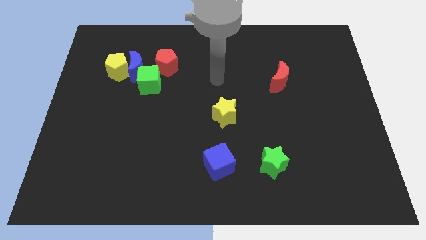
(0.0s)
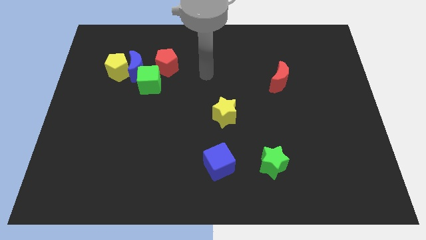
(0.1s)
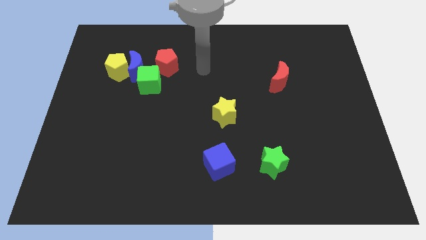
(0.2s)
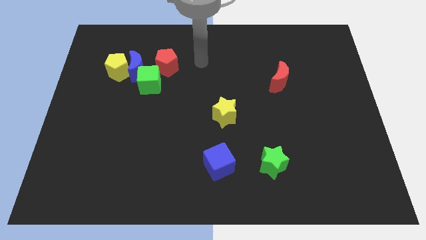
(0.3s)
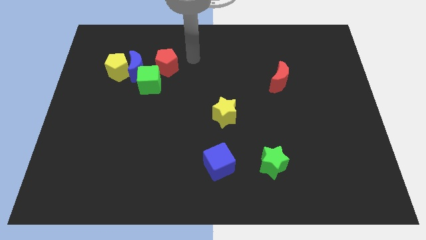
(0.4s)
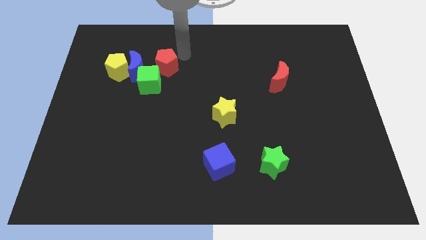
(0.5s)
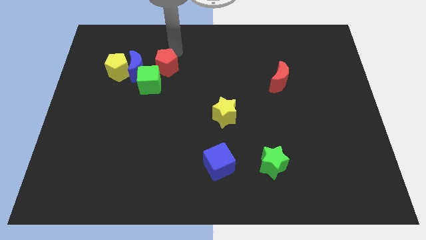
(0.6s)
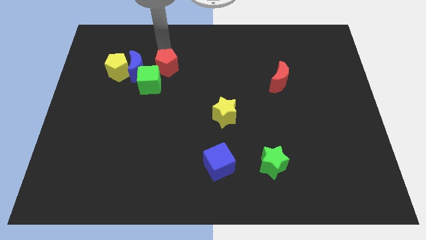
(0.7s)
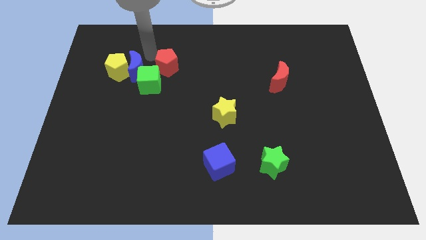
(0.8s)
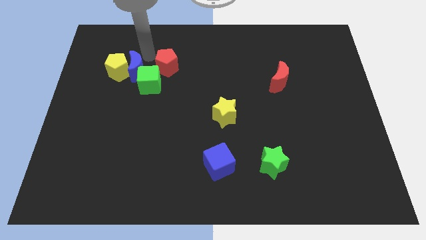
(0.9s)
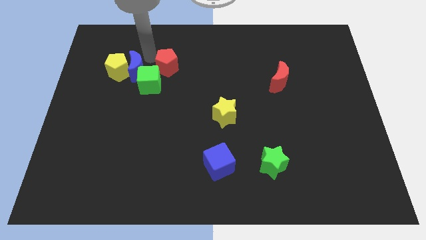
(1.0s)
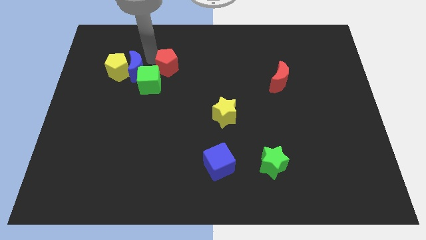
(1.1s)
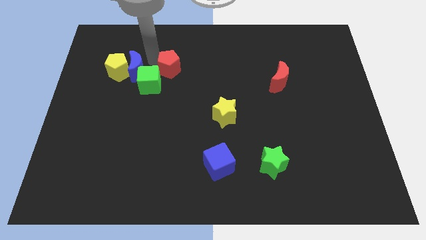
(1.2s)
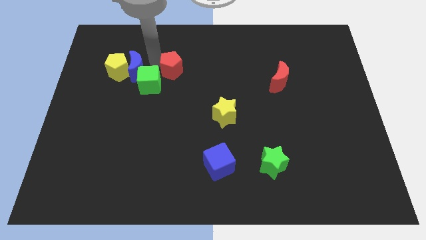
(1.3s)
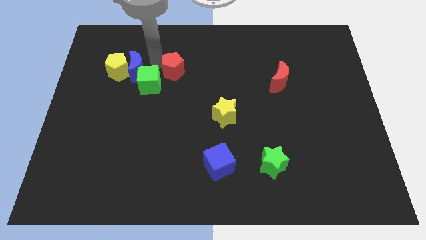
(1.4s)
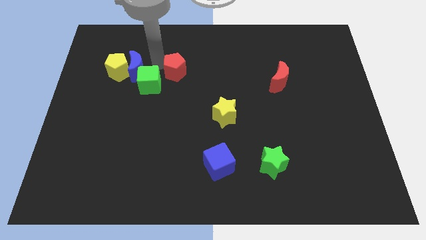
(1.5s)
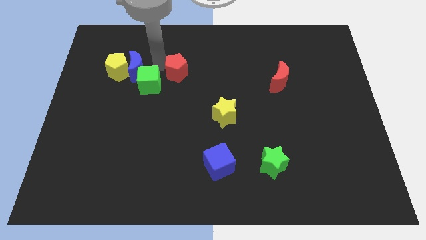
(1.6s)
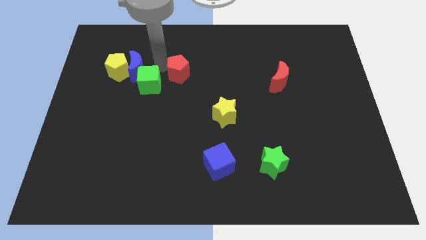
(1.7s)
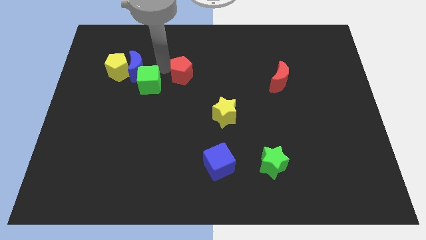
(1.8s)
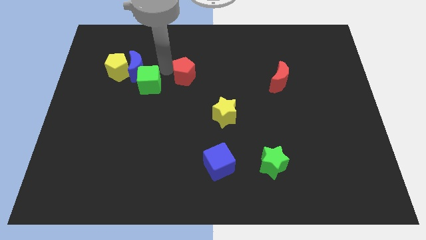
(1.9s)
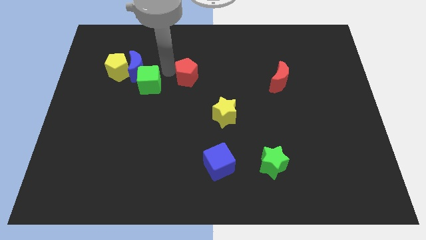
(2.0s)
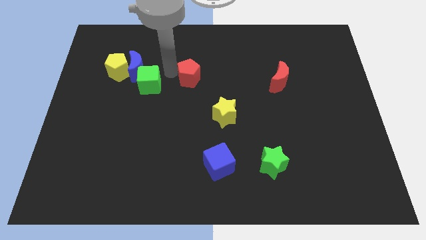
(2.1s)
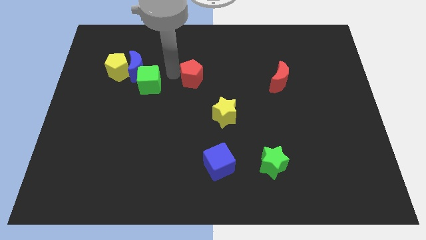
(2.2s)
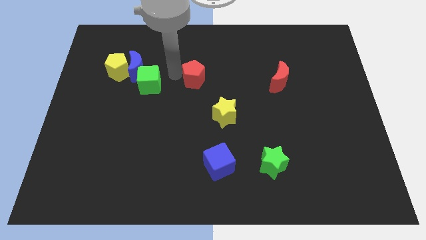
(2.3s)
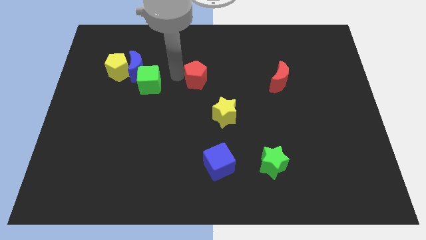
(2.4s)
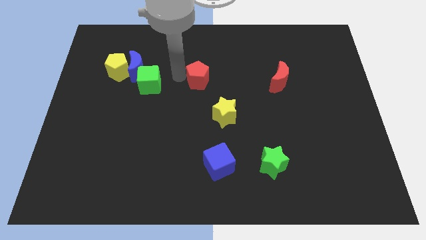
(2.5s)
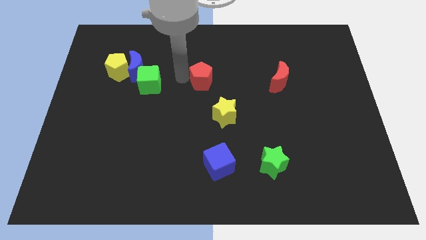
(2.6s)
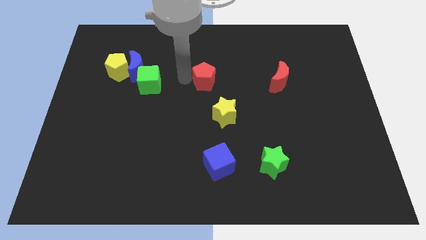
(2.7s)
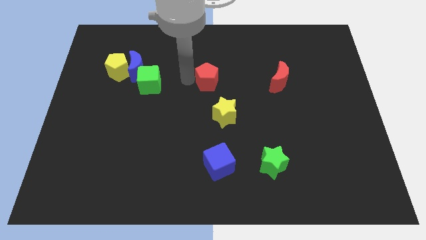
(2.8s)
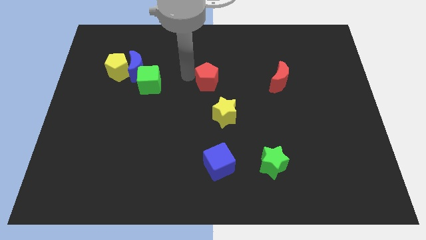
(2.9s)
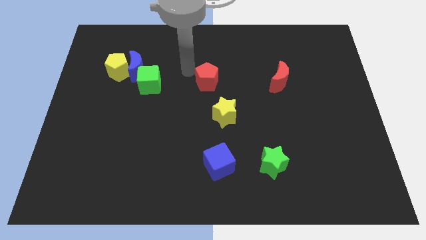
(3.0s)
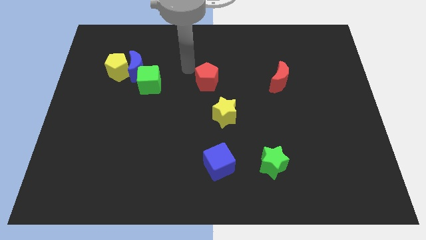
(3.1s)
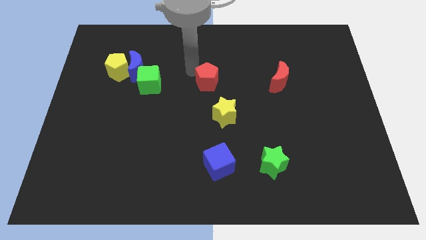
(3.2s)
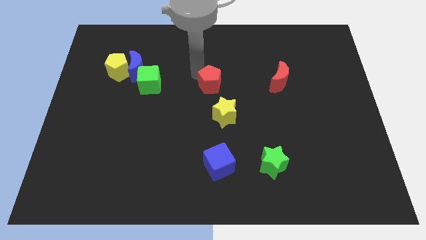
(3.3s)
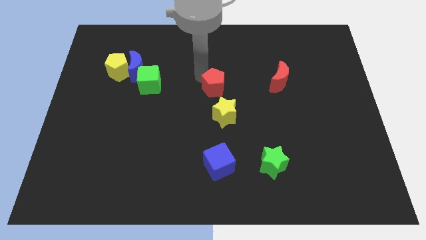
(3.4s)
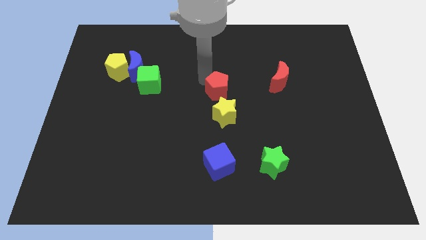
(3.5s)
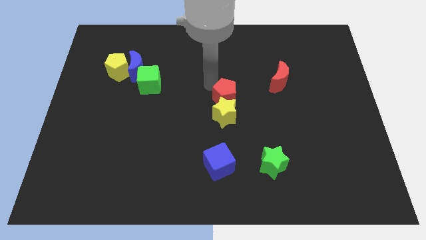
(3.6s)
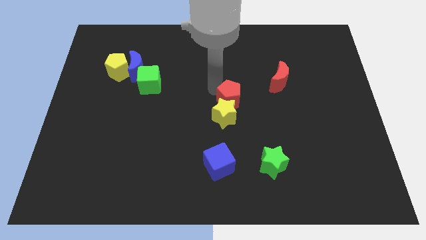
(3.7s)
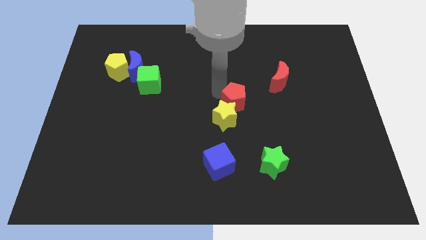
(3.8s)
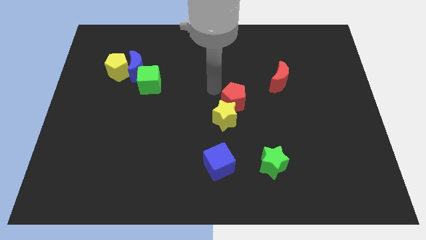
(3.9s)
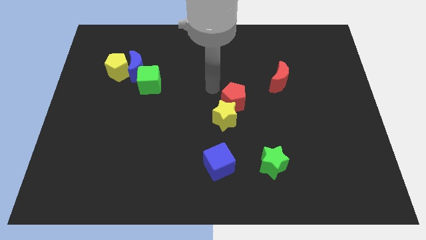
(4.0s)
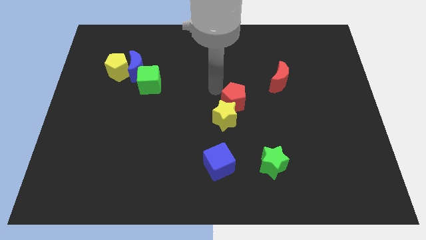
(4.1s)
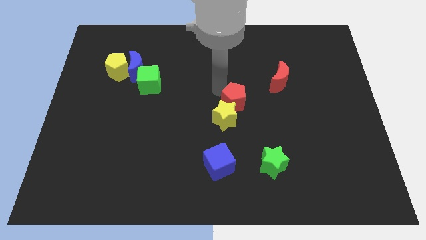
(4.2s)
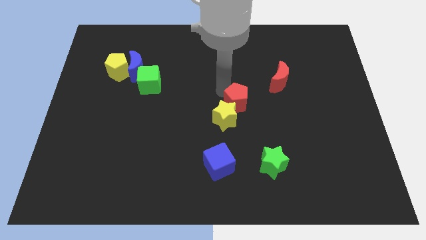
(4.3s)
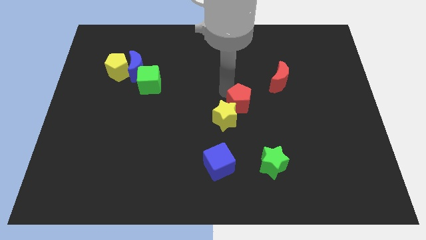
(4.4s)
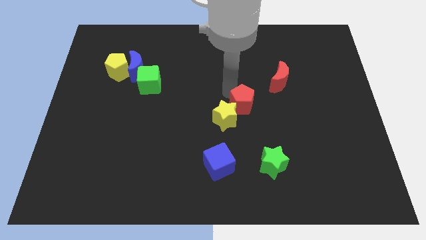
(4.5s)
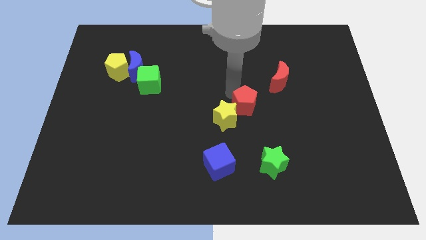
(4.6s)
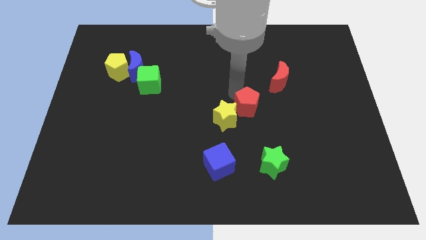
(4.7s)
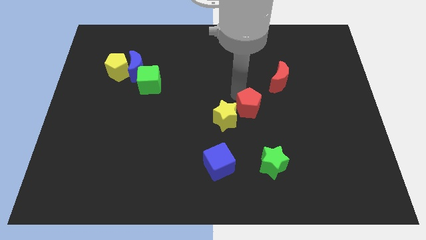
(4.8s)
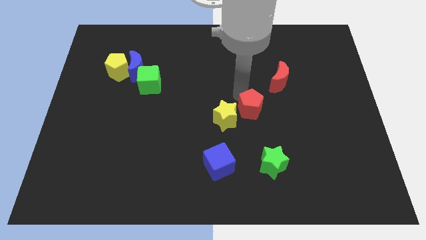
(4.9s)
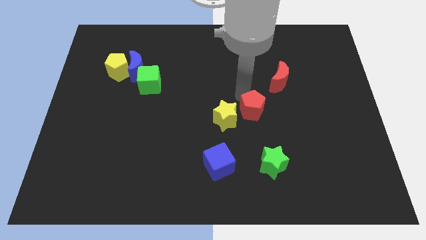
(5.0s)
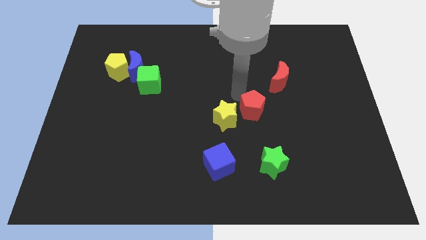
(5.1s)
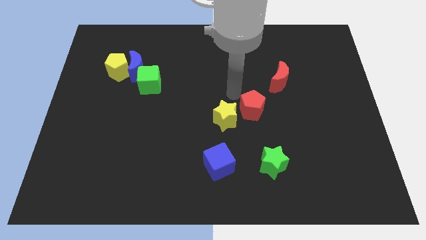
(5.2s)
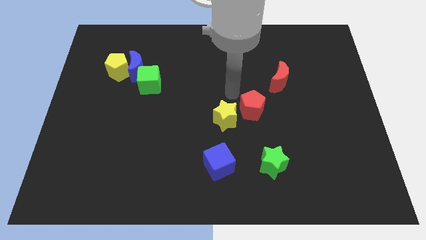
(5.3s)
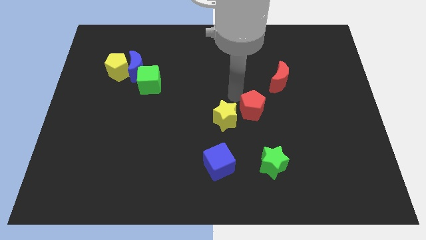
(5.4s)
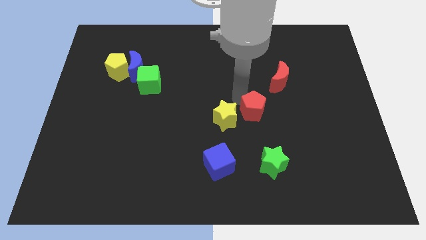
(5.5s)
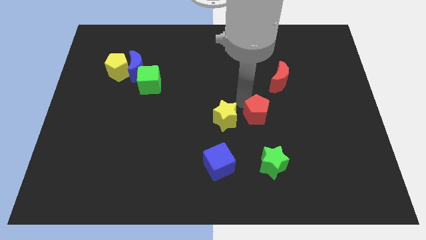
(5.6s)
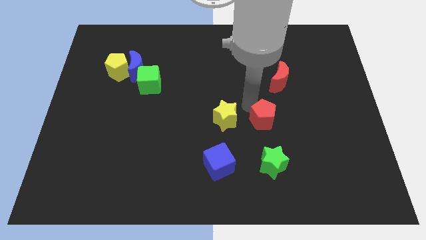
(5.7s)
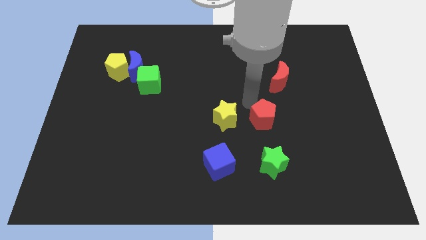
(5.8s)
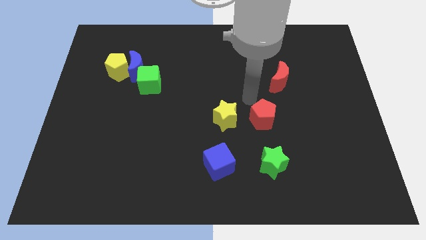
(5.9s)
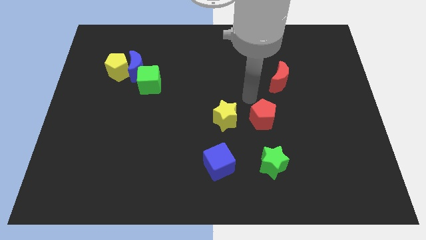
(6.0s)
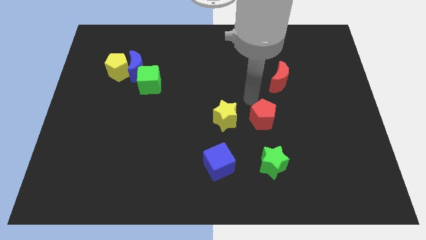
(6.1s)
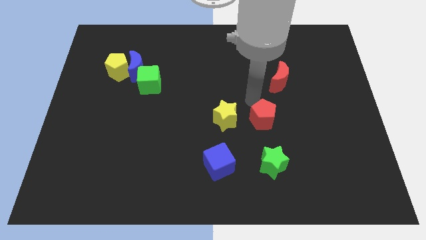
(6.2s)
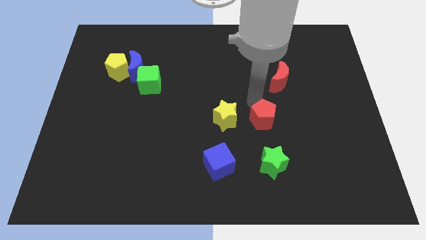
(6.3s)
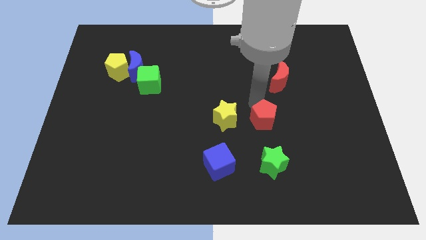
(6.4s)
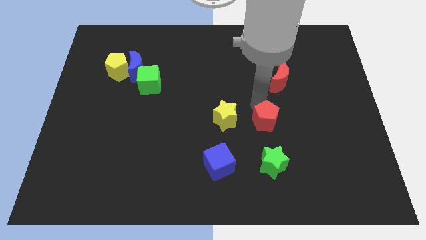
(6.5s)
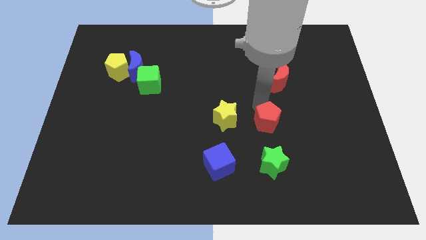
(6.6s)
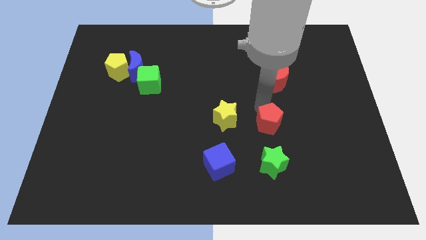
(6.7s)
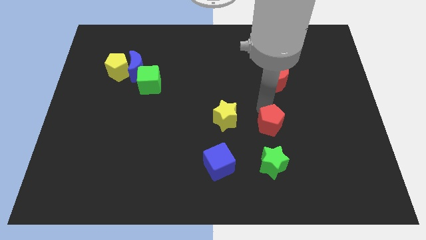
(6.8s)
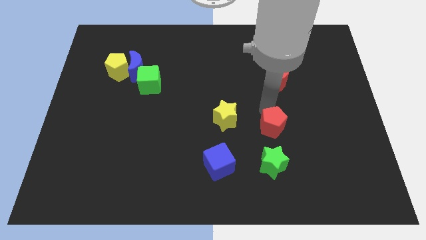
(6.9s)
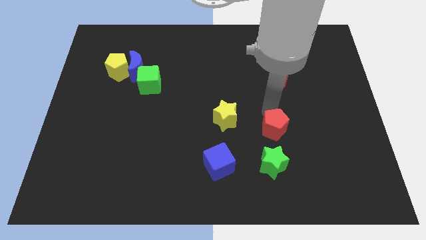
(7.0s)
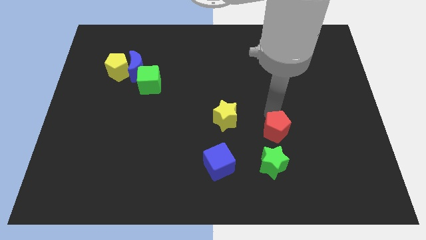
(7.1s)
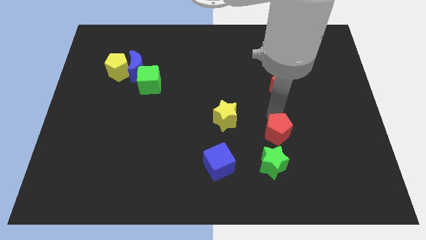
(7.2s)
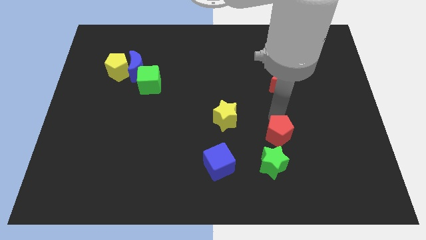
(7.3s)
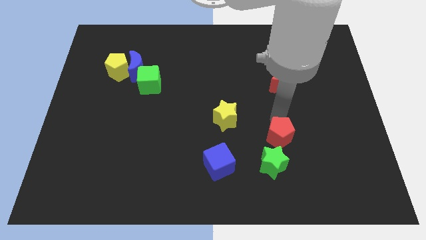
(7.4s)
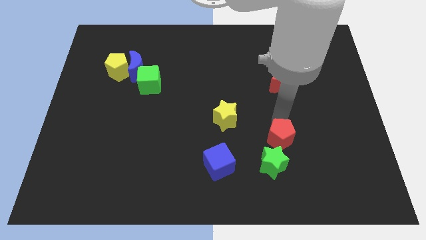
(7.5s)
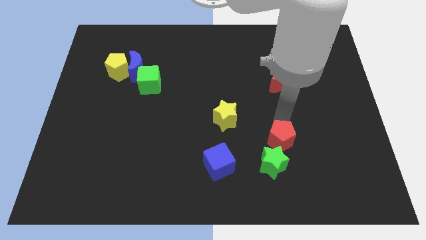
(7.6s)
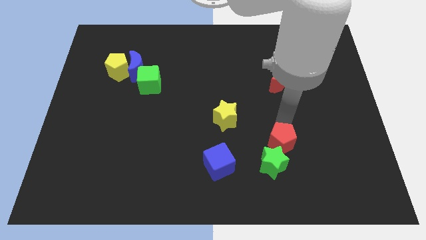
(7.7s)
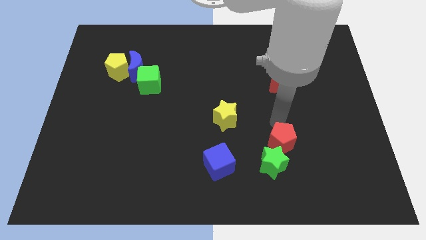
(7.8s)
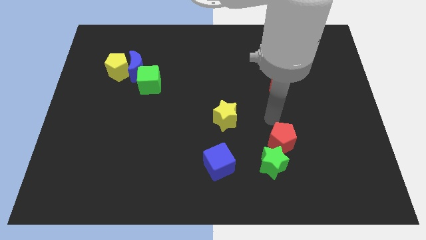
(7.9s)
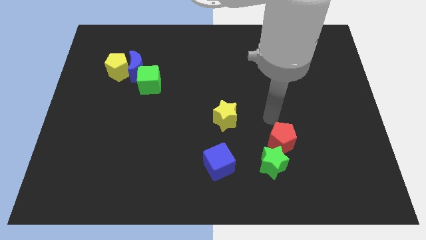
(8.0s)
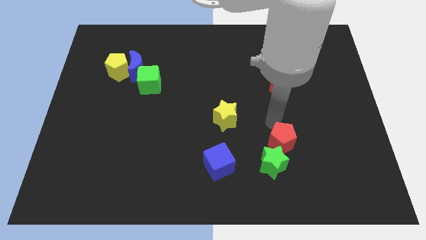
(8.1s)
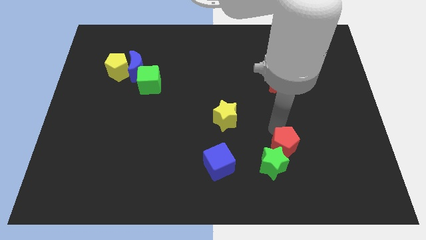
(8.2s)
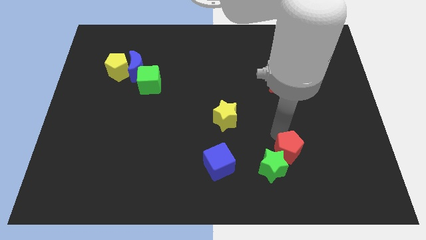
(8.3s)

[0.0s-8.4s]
slide the red pentagon right of the blue cube
